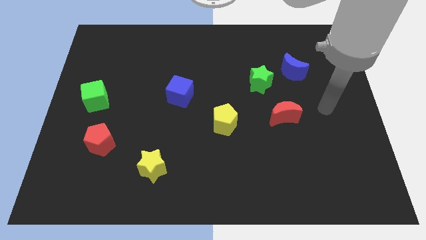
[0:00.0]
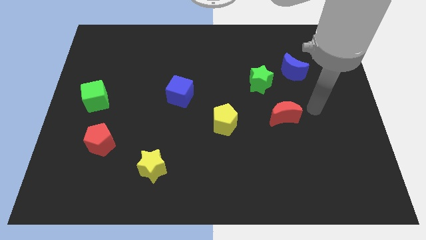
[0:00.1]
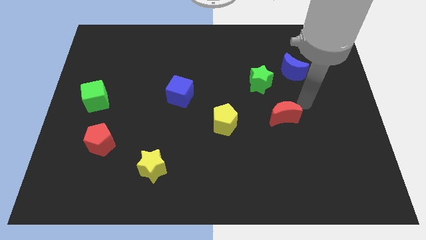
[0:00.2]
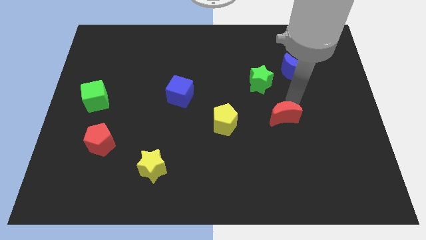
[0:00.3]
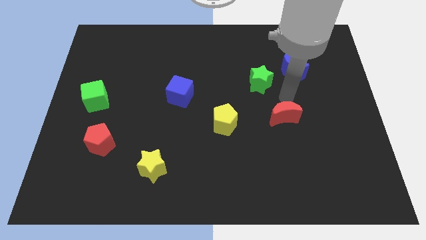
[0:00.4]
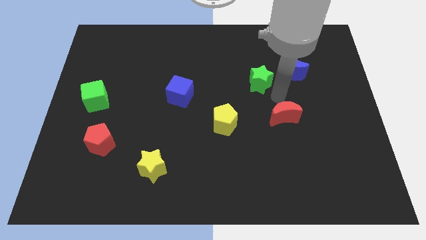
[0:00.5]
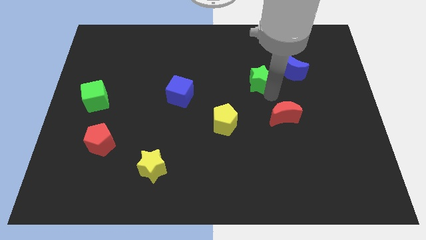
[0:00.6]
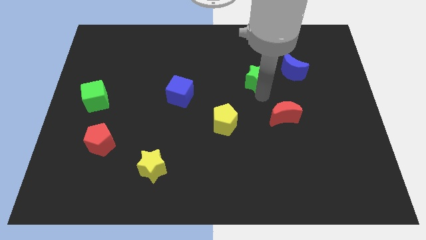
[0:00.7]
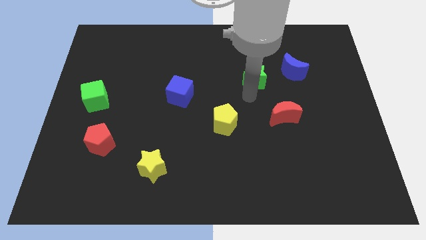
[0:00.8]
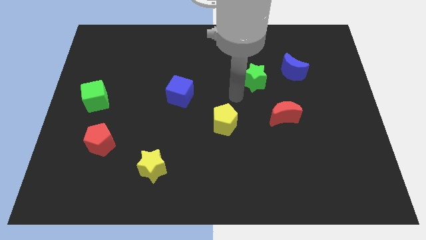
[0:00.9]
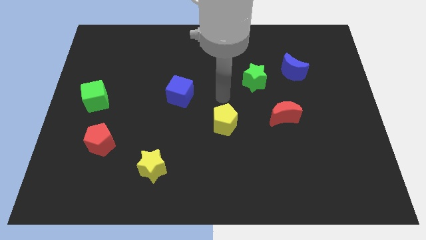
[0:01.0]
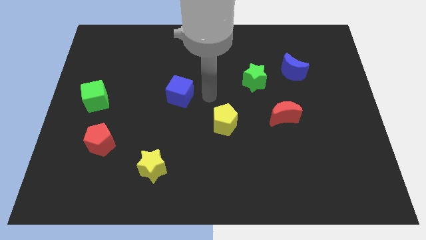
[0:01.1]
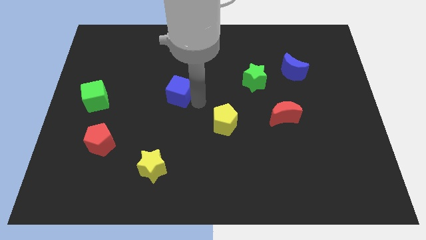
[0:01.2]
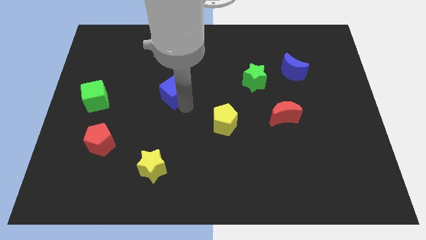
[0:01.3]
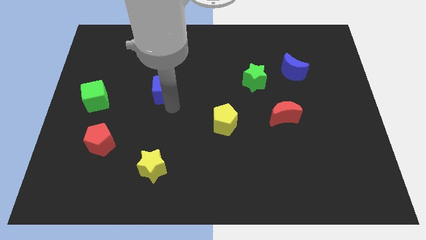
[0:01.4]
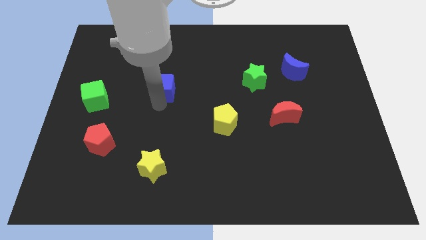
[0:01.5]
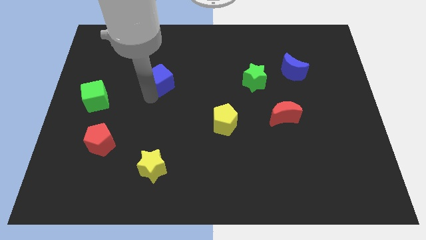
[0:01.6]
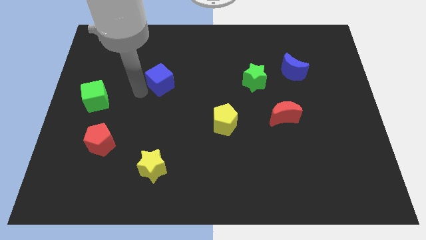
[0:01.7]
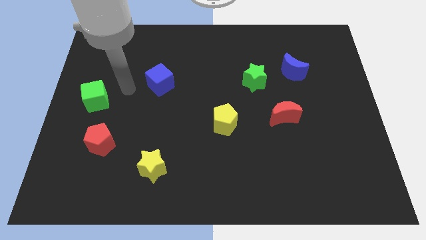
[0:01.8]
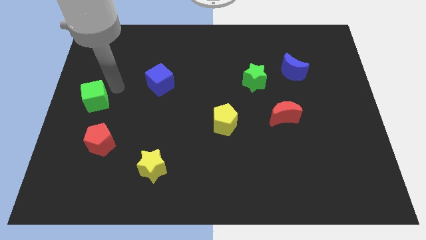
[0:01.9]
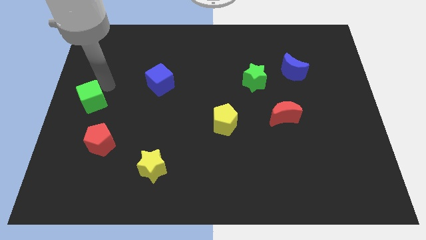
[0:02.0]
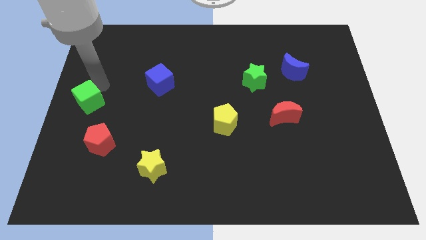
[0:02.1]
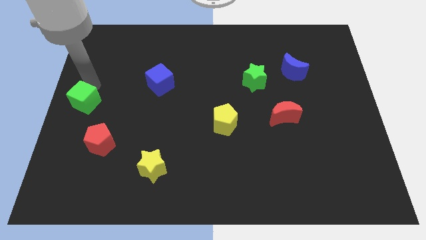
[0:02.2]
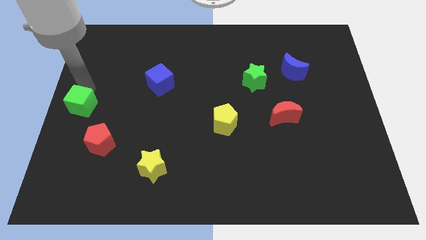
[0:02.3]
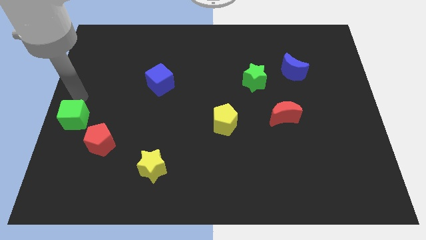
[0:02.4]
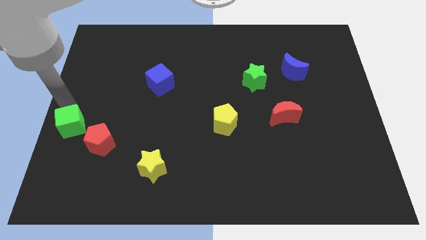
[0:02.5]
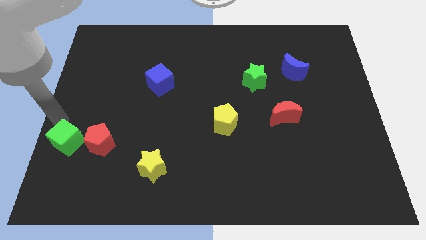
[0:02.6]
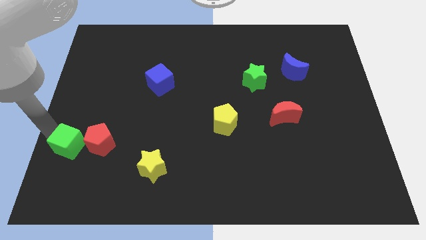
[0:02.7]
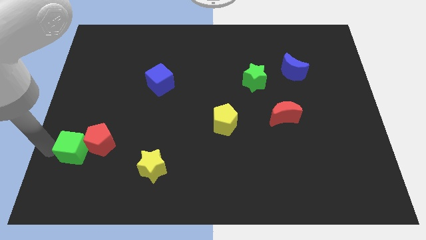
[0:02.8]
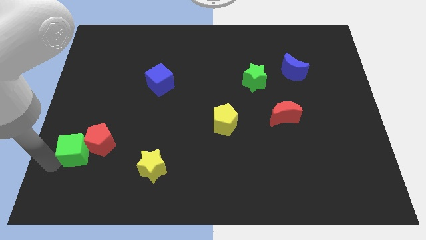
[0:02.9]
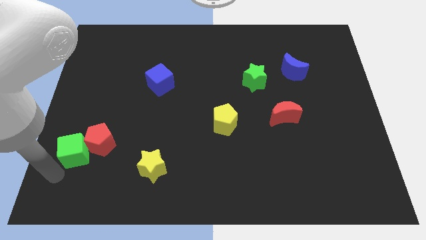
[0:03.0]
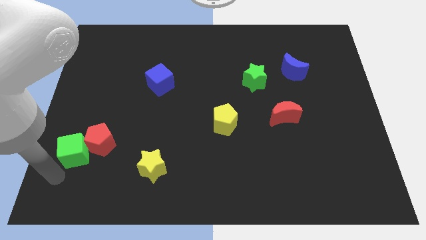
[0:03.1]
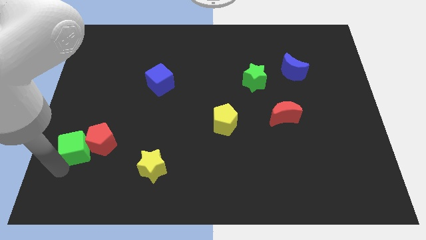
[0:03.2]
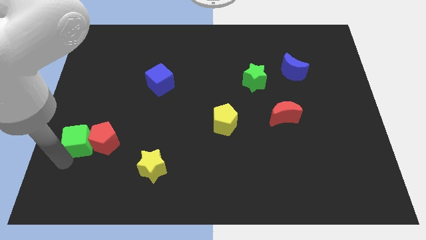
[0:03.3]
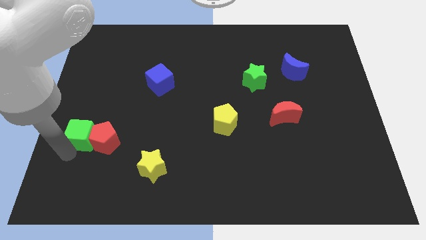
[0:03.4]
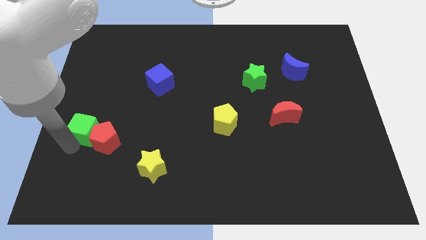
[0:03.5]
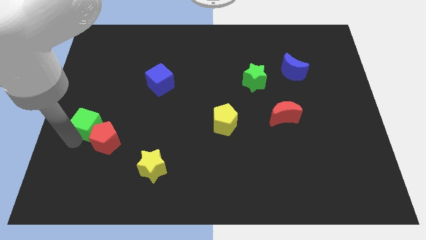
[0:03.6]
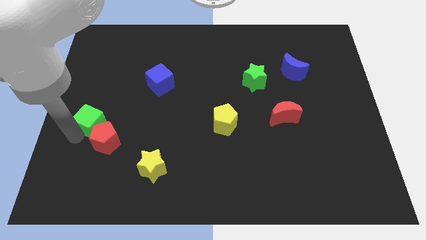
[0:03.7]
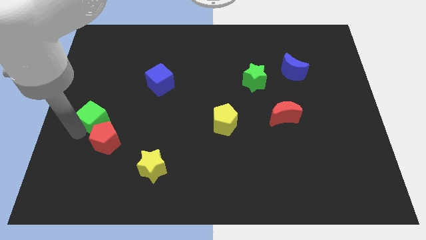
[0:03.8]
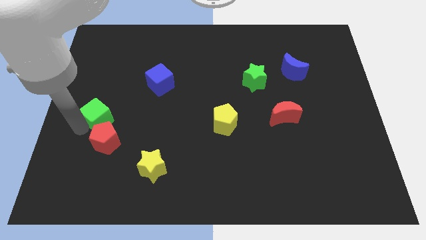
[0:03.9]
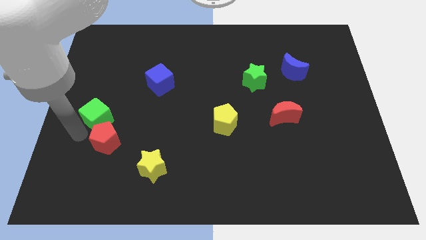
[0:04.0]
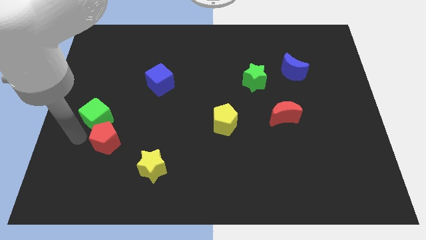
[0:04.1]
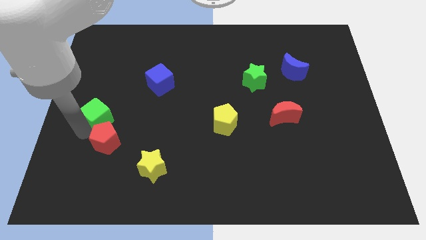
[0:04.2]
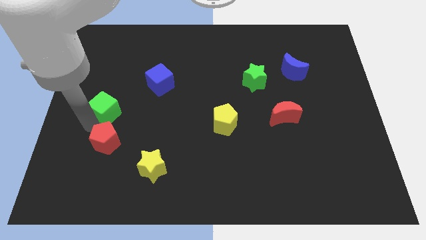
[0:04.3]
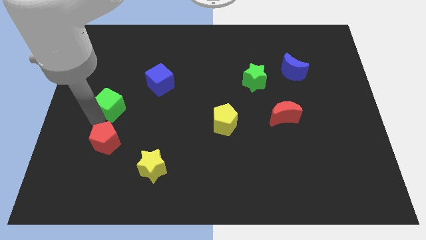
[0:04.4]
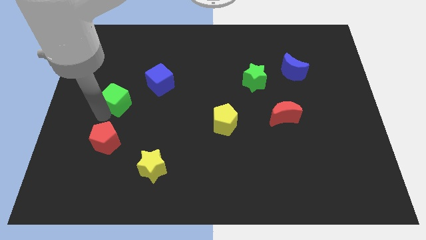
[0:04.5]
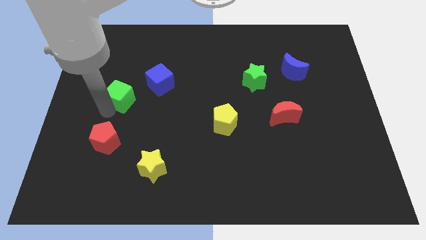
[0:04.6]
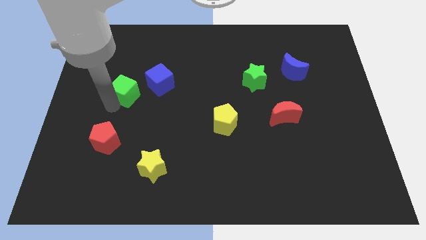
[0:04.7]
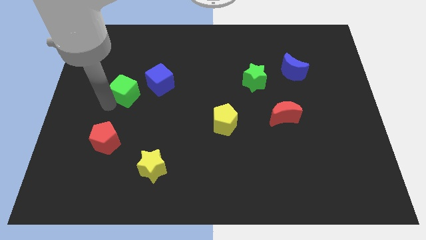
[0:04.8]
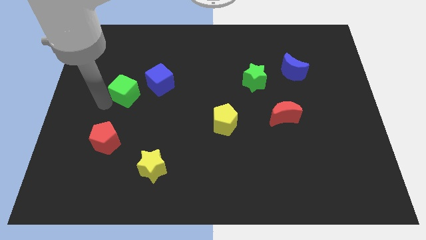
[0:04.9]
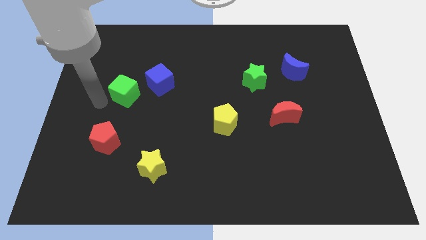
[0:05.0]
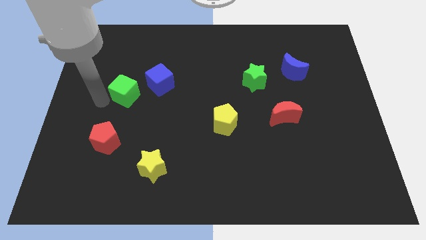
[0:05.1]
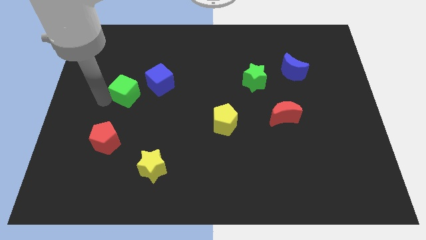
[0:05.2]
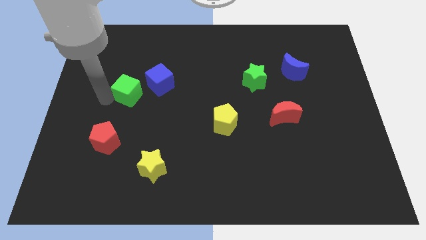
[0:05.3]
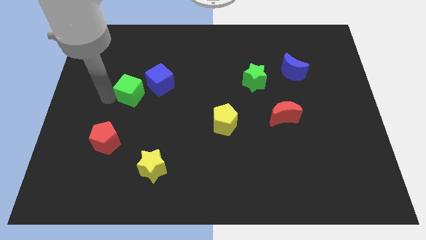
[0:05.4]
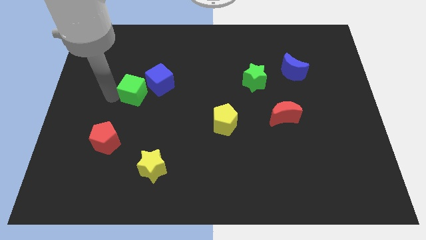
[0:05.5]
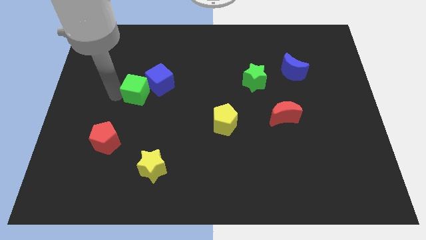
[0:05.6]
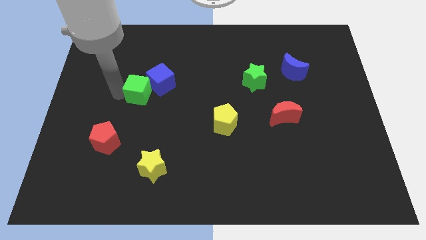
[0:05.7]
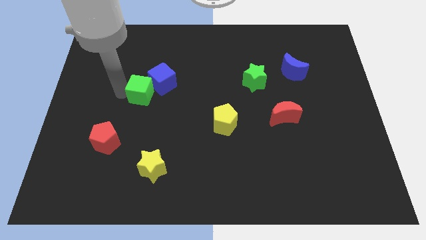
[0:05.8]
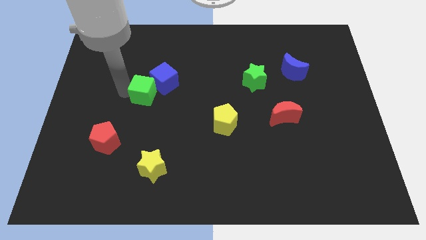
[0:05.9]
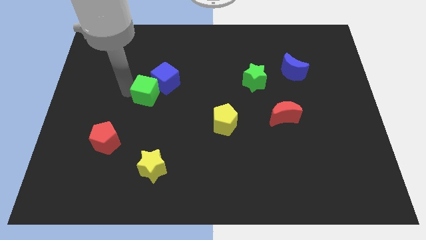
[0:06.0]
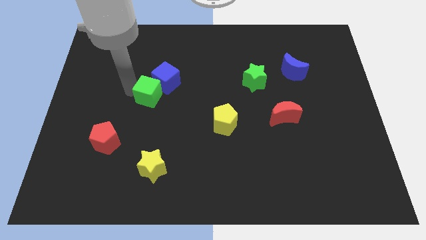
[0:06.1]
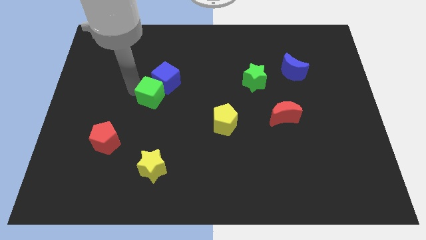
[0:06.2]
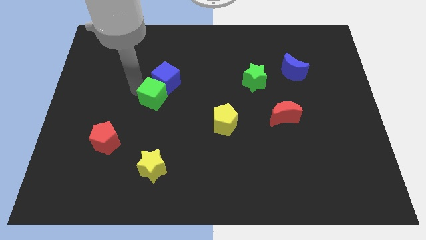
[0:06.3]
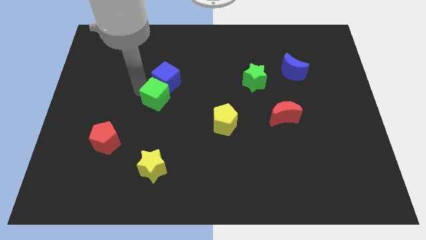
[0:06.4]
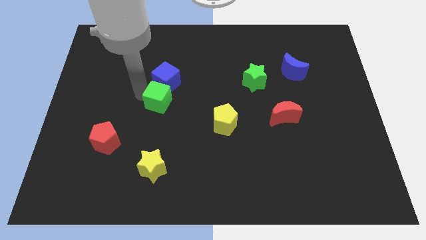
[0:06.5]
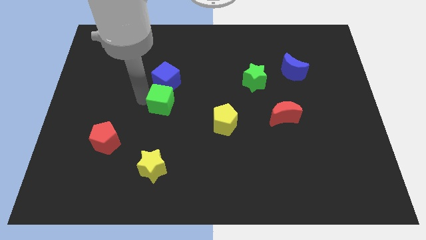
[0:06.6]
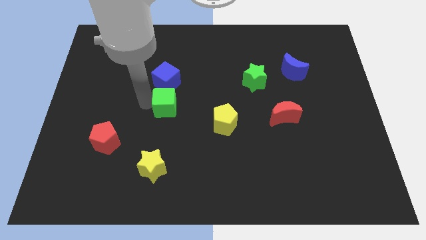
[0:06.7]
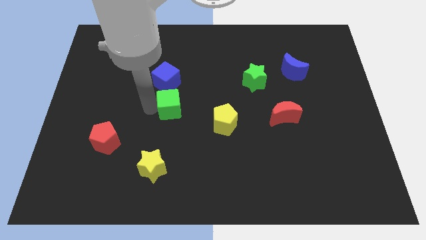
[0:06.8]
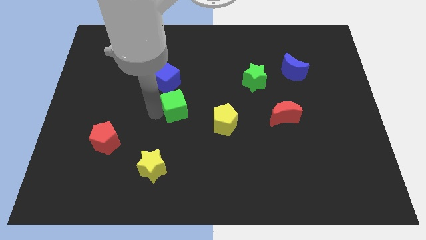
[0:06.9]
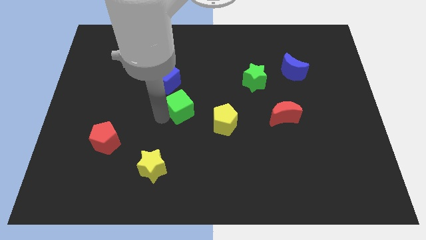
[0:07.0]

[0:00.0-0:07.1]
push the green cube right

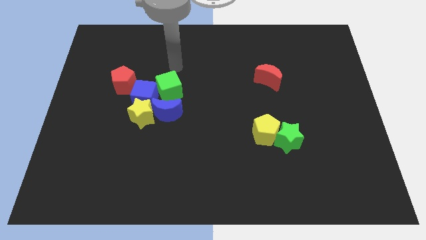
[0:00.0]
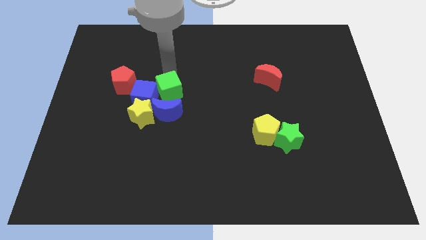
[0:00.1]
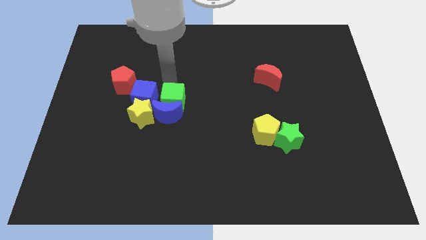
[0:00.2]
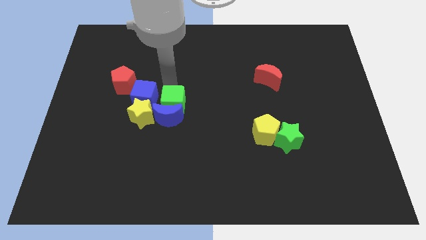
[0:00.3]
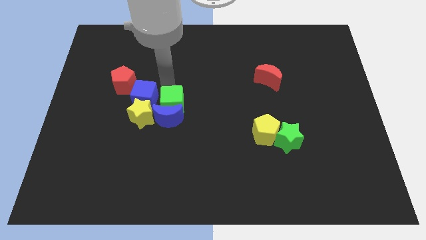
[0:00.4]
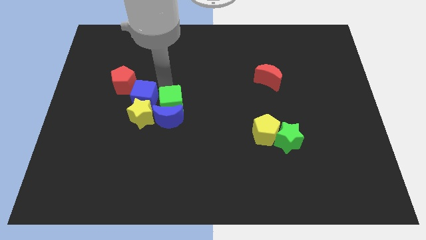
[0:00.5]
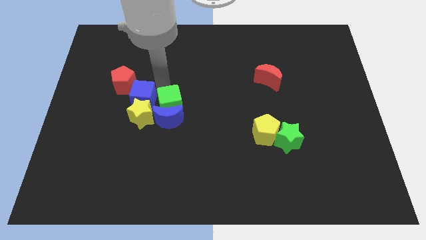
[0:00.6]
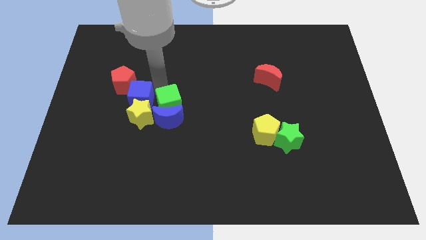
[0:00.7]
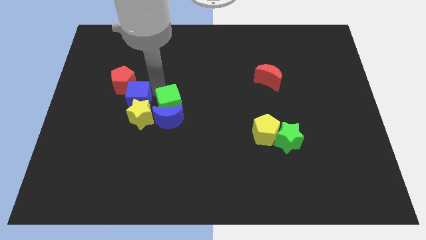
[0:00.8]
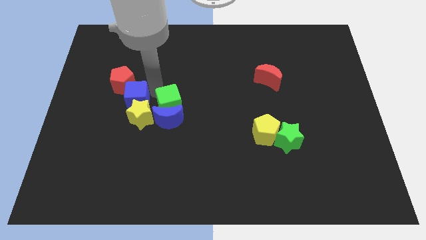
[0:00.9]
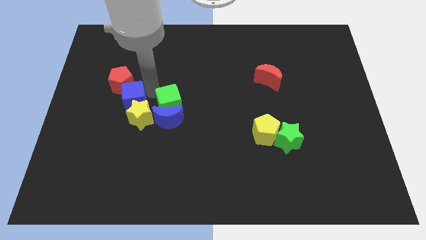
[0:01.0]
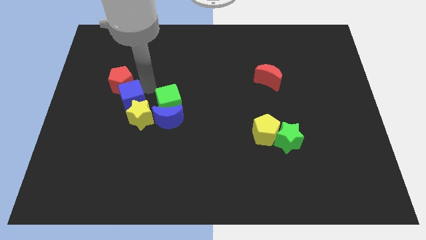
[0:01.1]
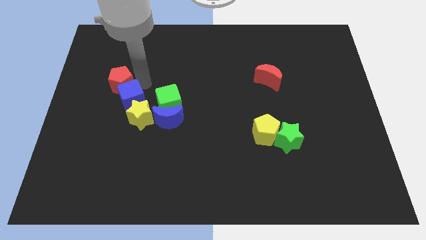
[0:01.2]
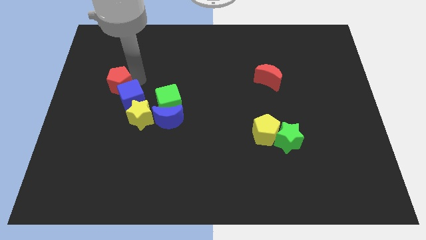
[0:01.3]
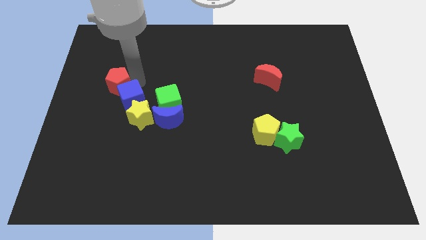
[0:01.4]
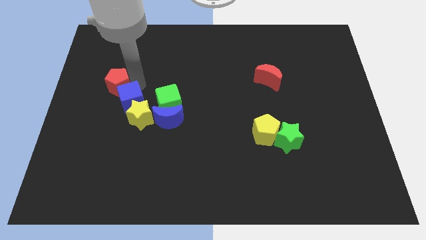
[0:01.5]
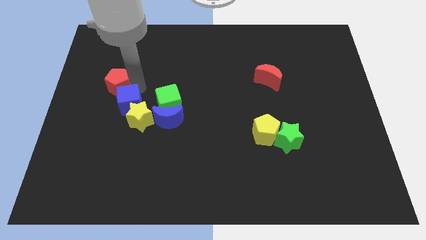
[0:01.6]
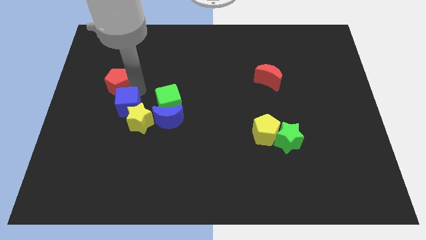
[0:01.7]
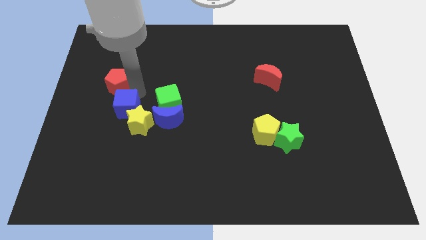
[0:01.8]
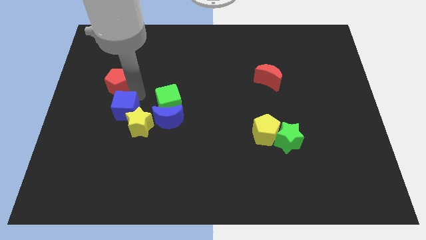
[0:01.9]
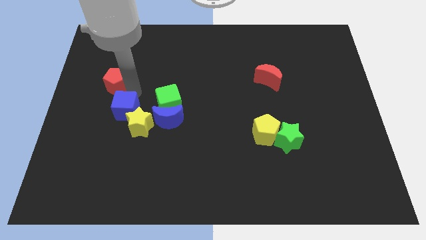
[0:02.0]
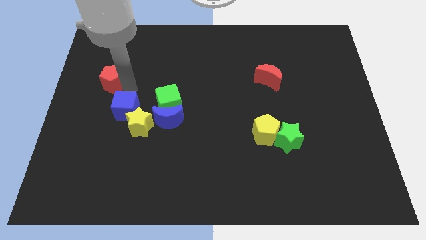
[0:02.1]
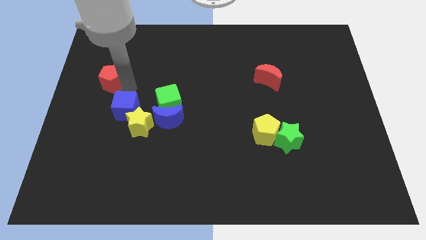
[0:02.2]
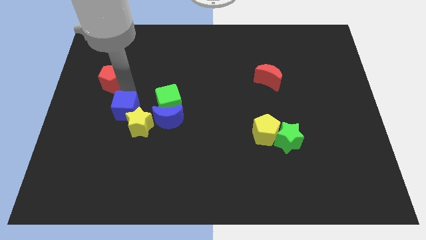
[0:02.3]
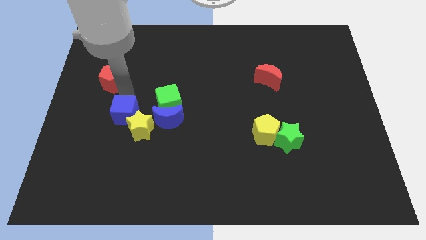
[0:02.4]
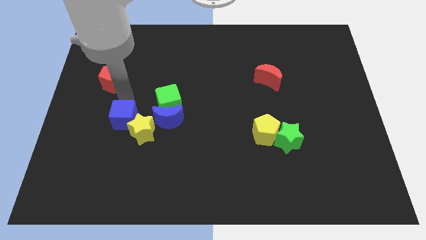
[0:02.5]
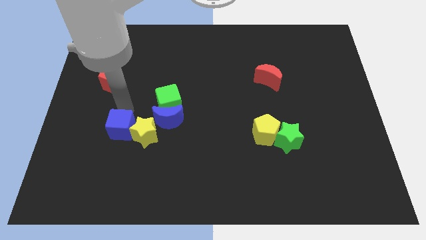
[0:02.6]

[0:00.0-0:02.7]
push the blue cube a little bit down
